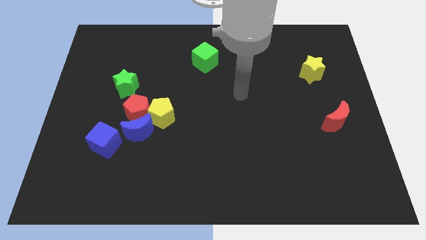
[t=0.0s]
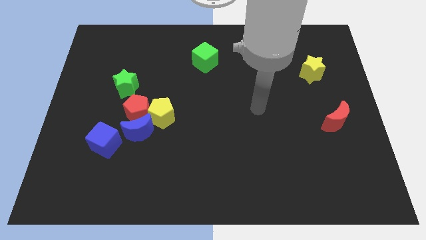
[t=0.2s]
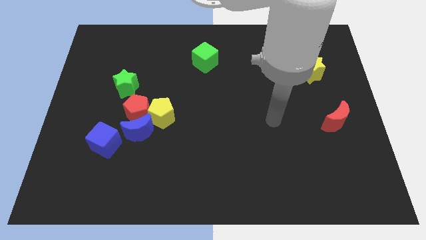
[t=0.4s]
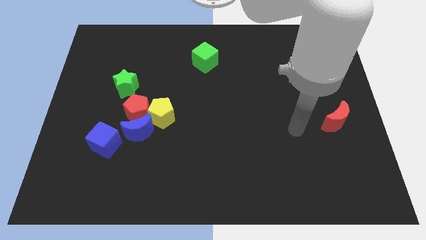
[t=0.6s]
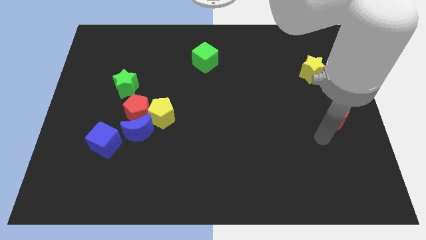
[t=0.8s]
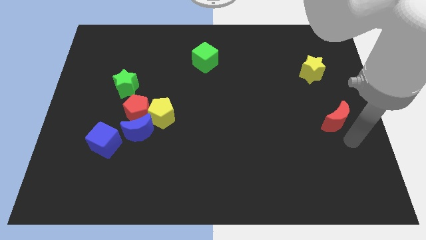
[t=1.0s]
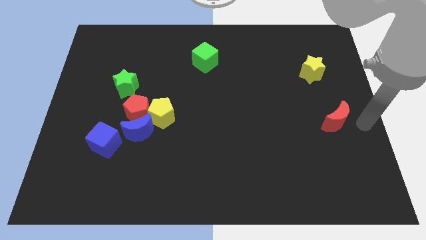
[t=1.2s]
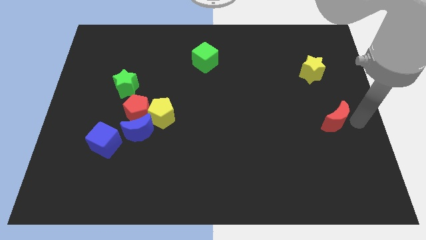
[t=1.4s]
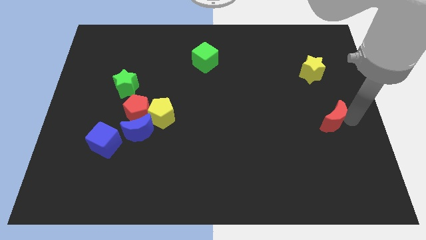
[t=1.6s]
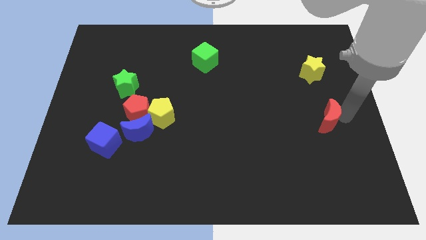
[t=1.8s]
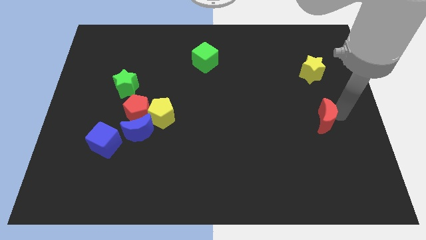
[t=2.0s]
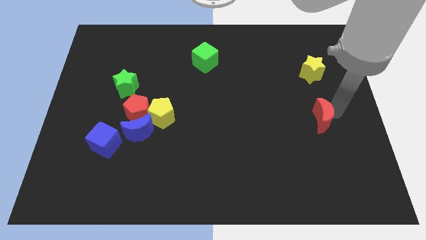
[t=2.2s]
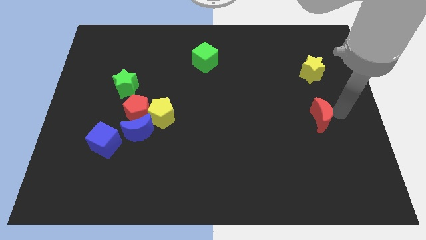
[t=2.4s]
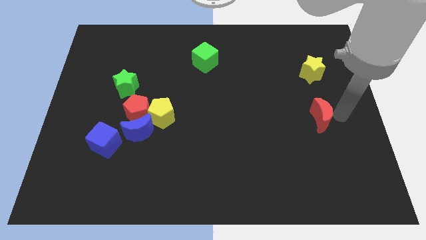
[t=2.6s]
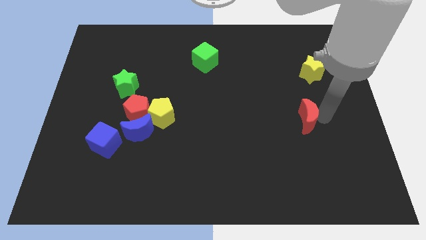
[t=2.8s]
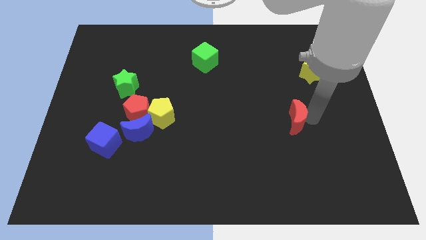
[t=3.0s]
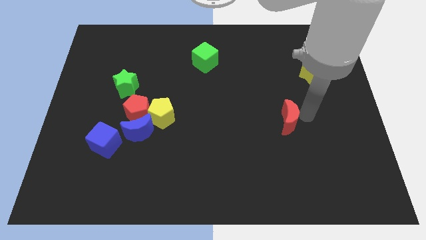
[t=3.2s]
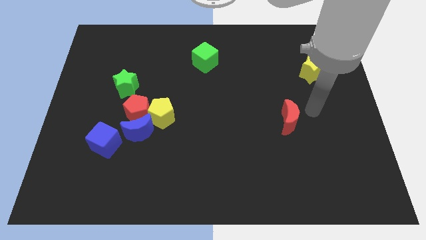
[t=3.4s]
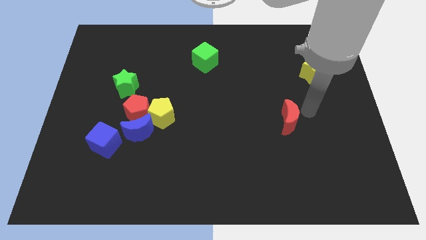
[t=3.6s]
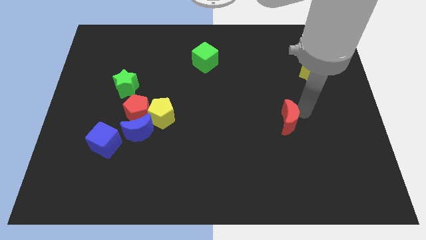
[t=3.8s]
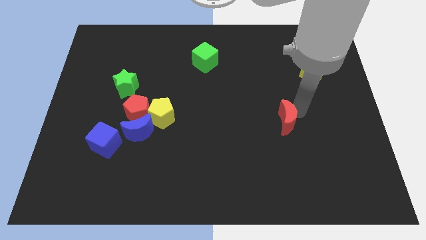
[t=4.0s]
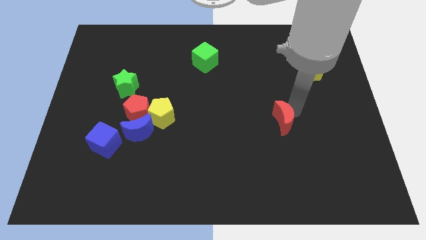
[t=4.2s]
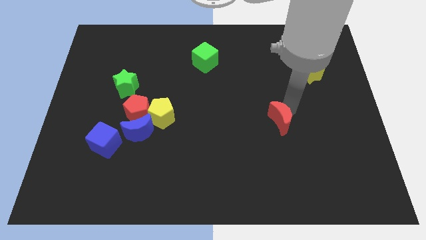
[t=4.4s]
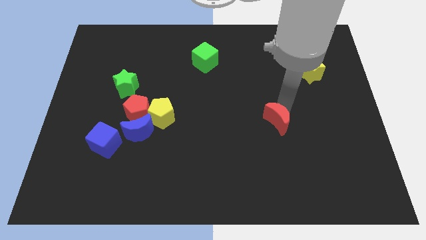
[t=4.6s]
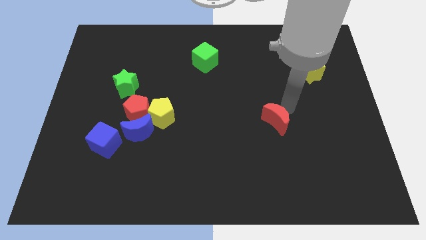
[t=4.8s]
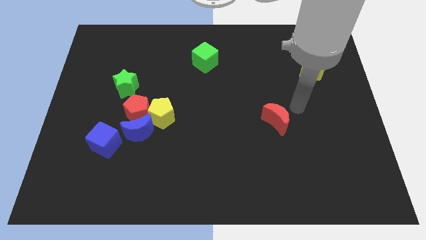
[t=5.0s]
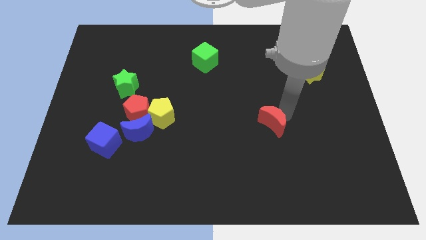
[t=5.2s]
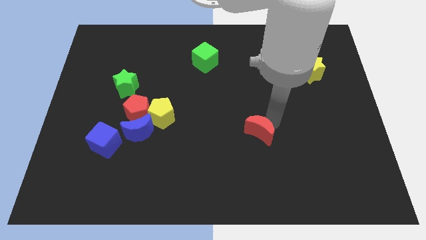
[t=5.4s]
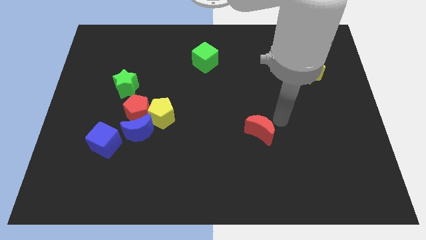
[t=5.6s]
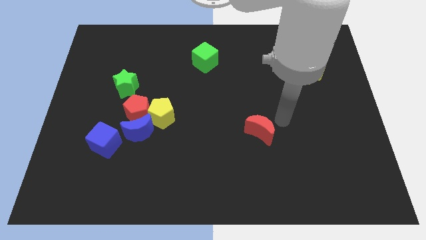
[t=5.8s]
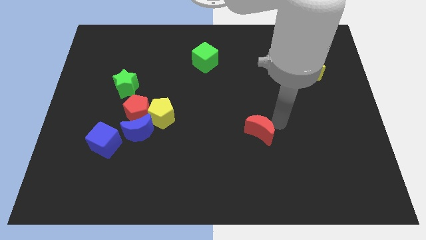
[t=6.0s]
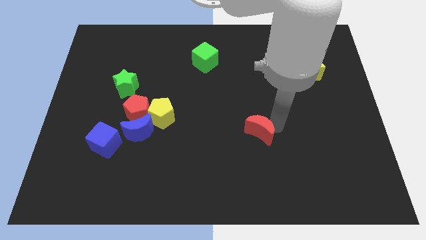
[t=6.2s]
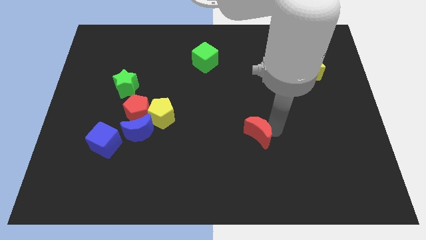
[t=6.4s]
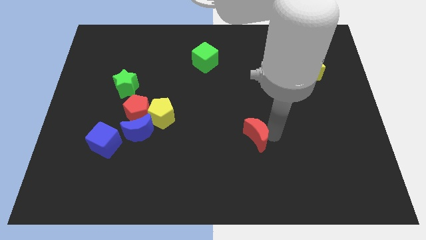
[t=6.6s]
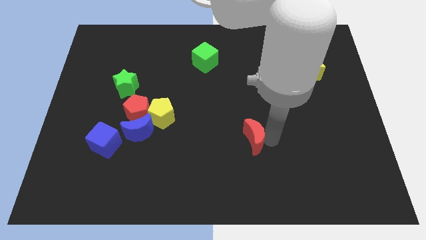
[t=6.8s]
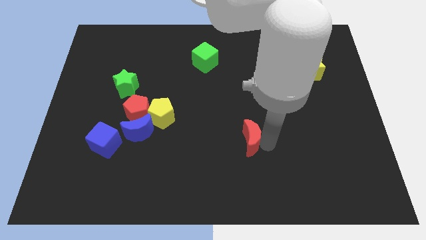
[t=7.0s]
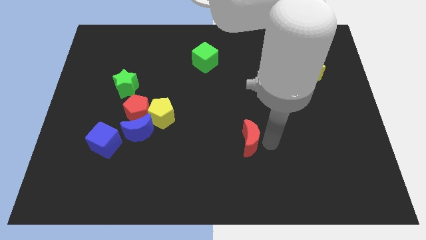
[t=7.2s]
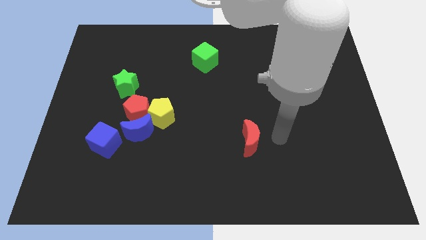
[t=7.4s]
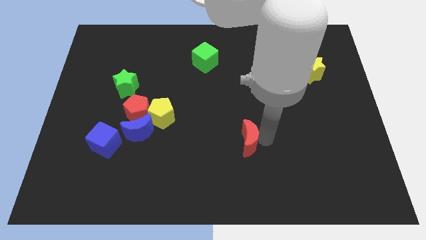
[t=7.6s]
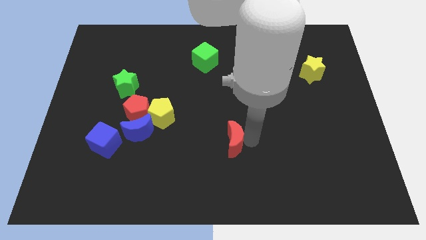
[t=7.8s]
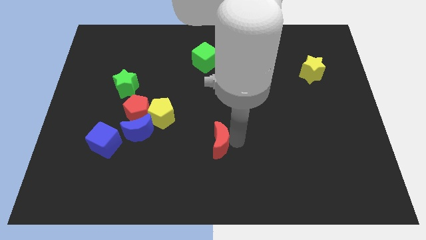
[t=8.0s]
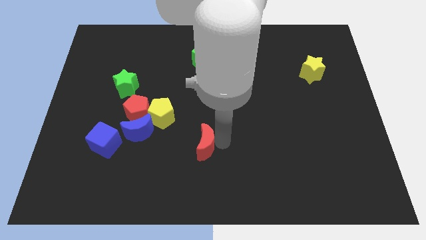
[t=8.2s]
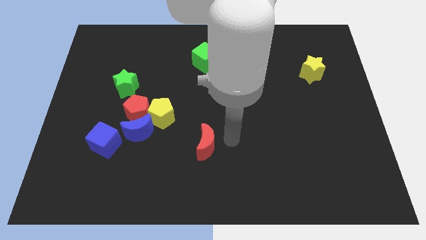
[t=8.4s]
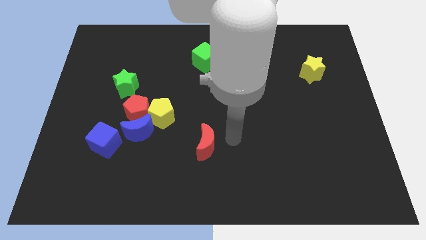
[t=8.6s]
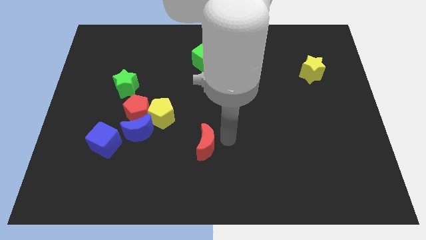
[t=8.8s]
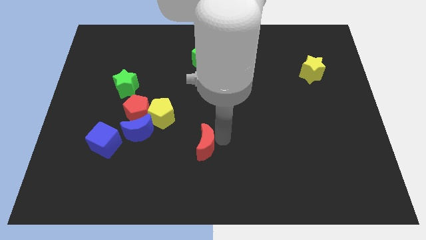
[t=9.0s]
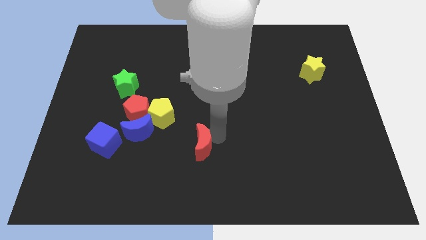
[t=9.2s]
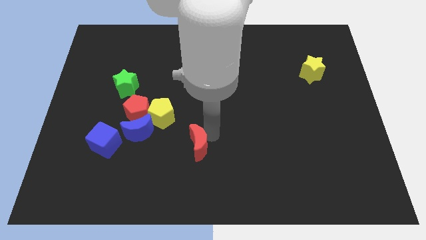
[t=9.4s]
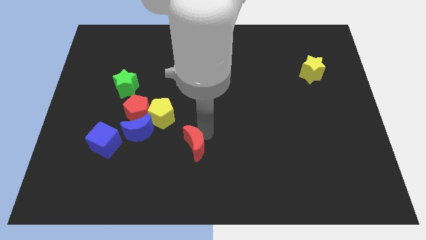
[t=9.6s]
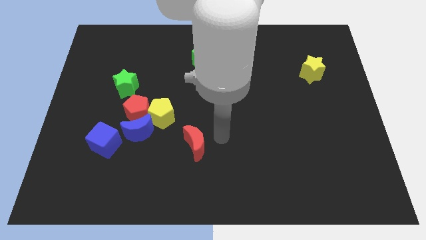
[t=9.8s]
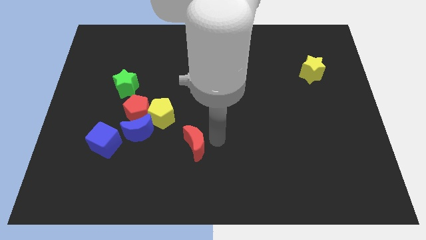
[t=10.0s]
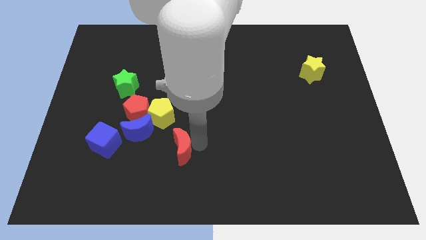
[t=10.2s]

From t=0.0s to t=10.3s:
put the red moon diagonally down and to the right of the blue moon

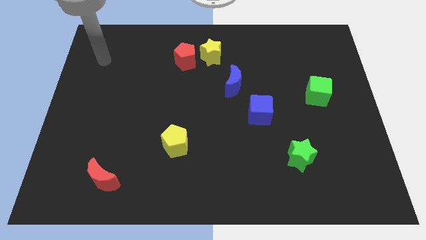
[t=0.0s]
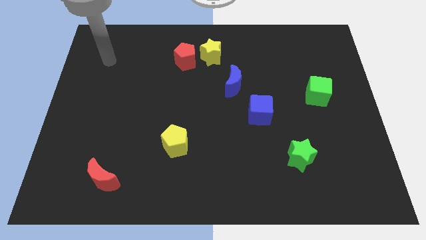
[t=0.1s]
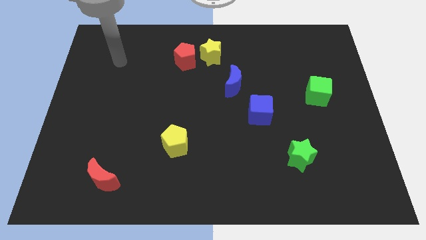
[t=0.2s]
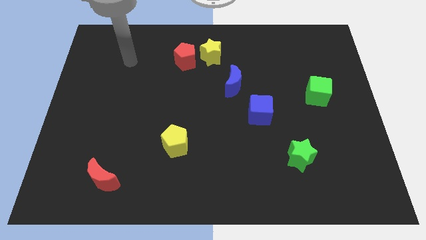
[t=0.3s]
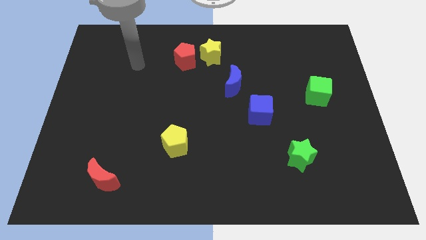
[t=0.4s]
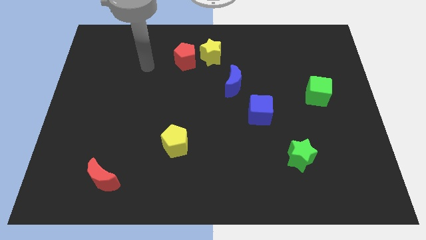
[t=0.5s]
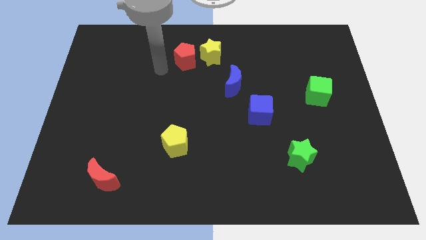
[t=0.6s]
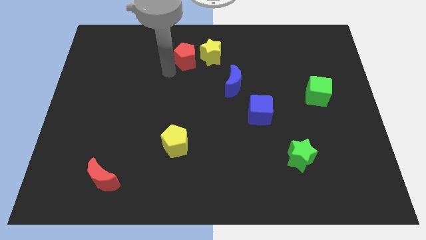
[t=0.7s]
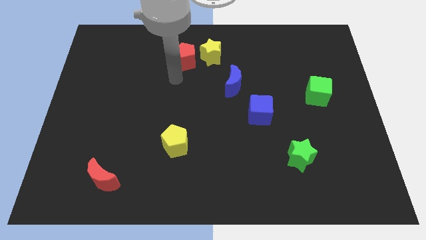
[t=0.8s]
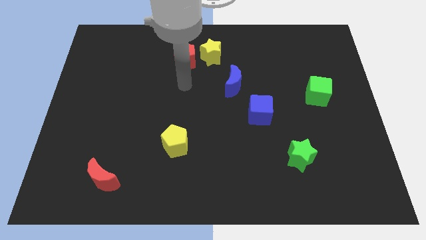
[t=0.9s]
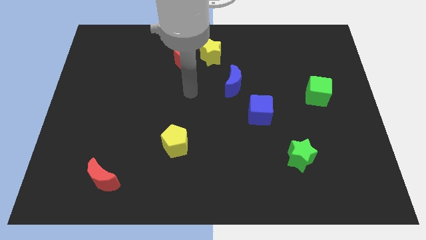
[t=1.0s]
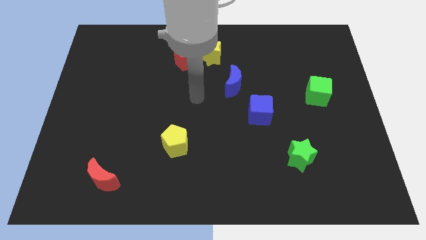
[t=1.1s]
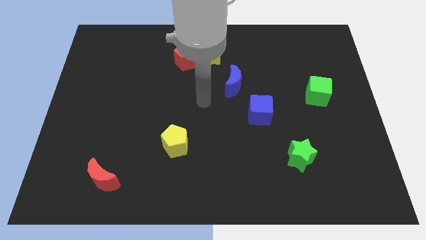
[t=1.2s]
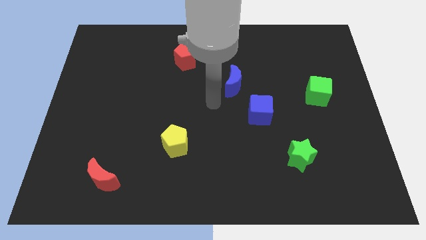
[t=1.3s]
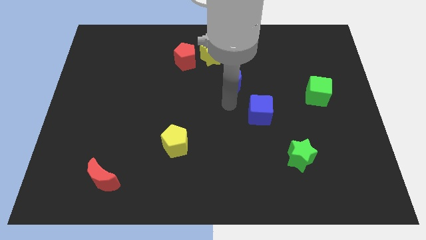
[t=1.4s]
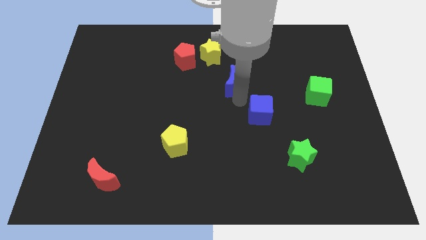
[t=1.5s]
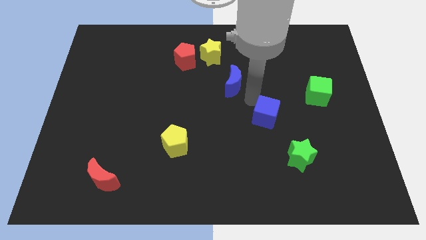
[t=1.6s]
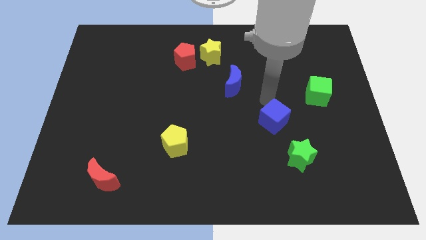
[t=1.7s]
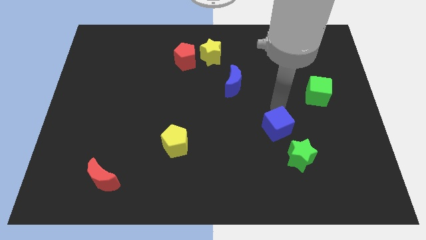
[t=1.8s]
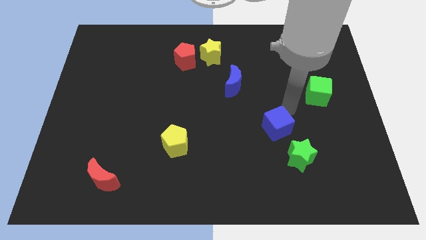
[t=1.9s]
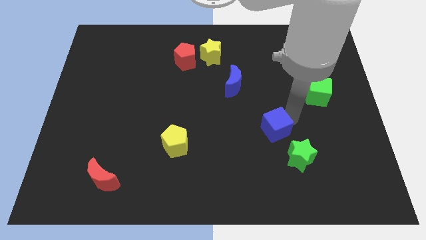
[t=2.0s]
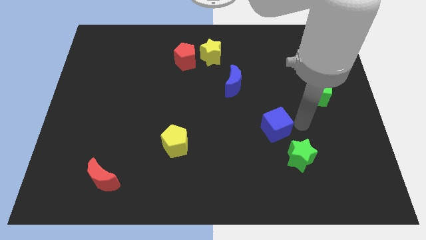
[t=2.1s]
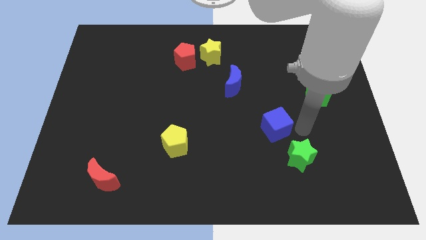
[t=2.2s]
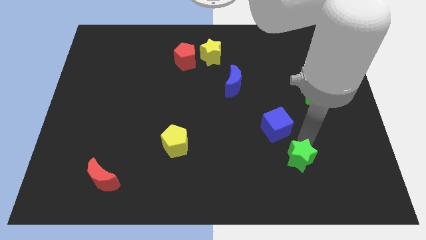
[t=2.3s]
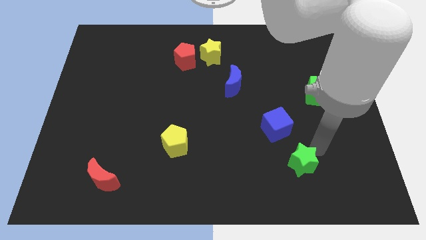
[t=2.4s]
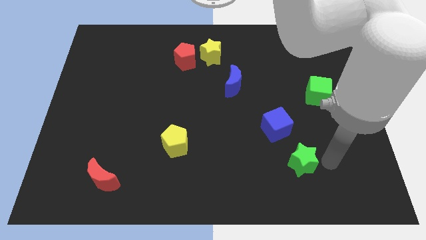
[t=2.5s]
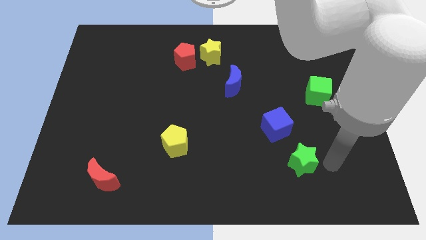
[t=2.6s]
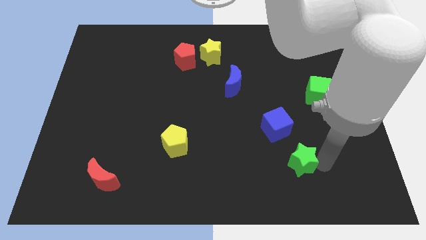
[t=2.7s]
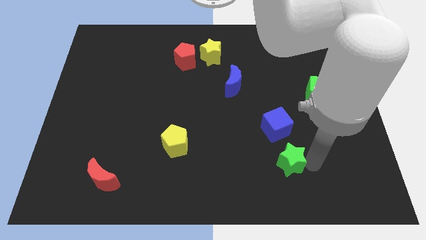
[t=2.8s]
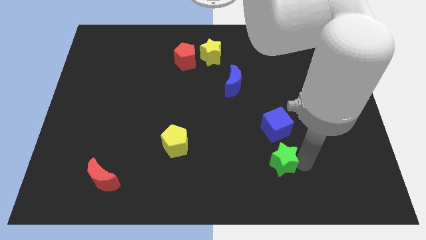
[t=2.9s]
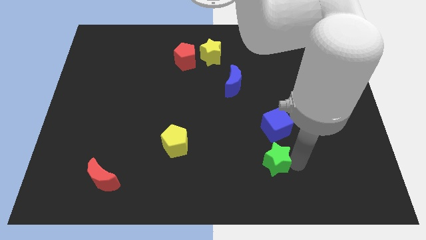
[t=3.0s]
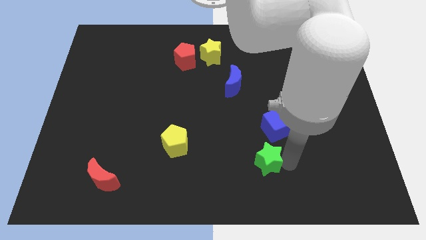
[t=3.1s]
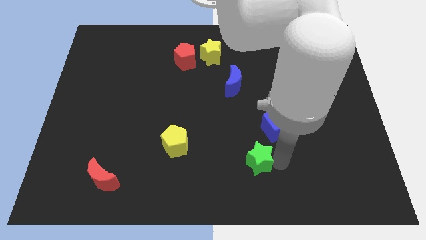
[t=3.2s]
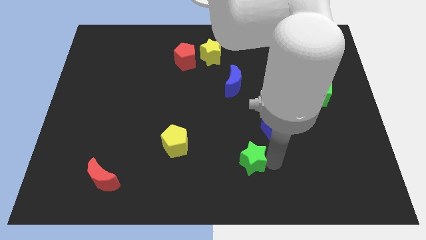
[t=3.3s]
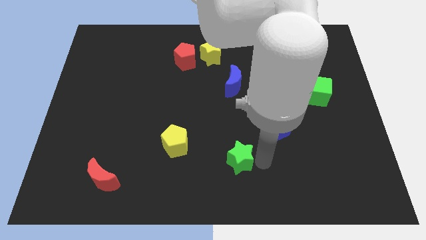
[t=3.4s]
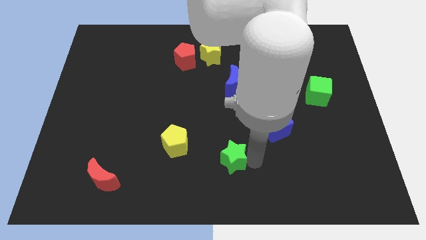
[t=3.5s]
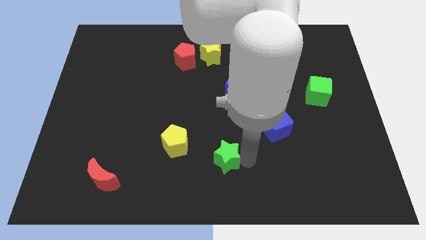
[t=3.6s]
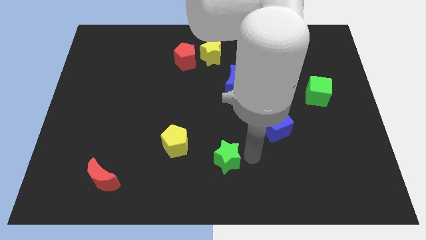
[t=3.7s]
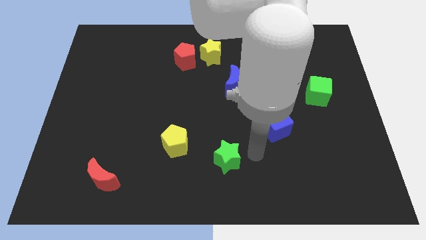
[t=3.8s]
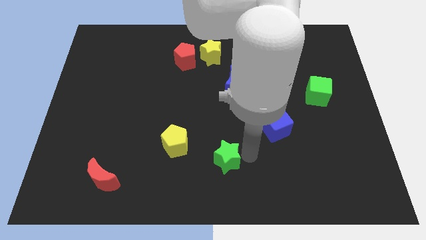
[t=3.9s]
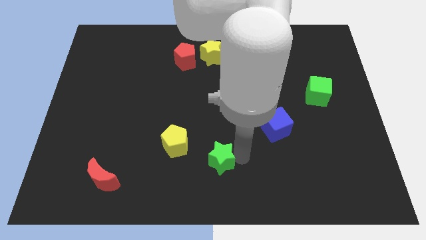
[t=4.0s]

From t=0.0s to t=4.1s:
move the green star to the bottom right of the yellow pentagon
